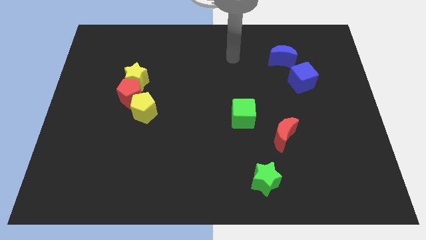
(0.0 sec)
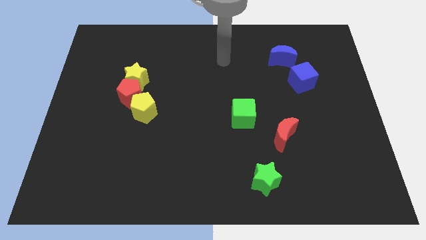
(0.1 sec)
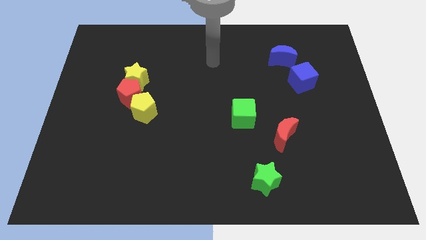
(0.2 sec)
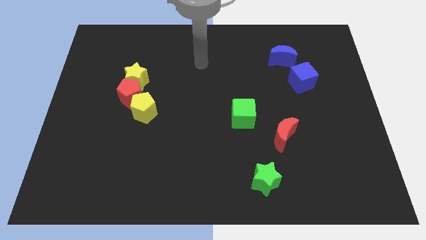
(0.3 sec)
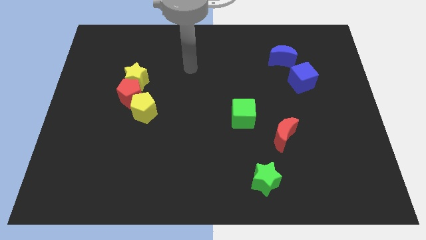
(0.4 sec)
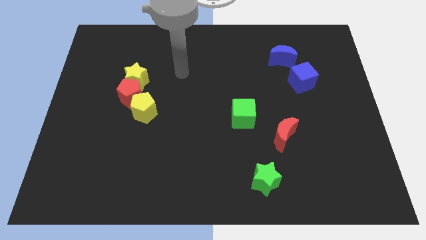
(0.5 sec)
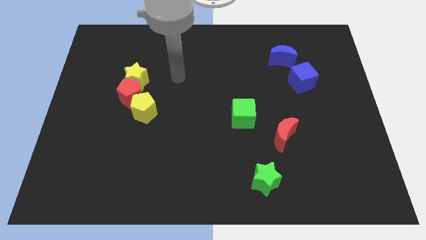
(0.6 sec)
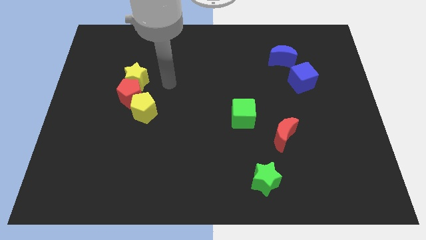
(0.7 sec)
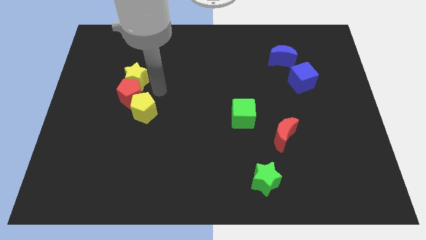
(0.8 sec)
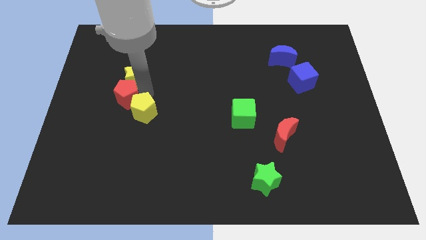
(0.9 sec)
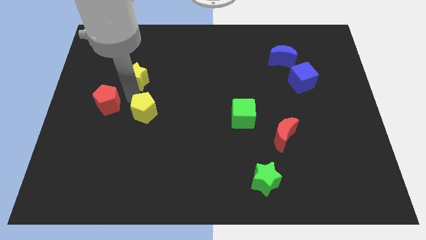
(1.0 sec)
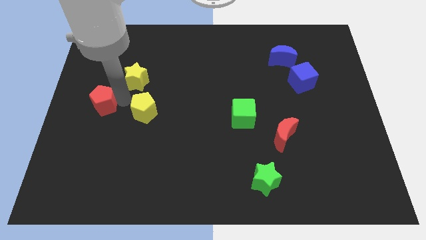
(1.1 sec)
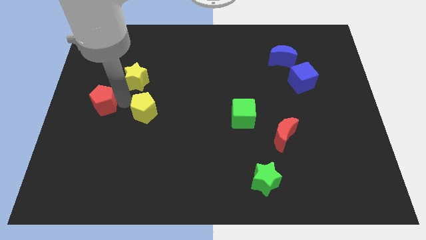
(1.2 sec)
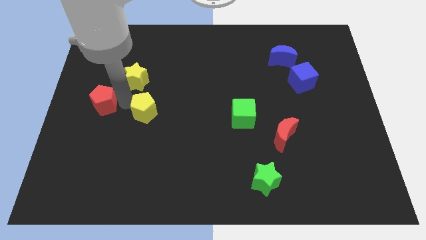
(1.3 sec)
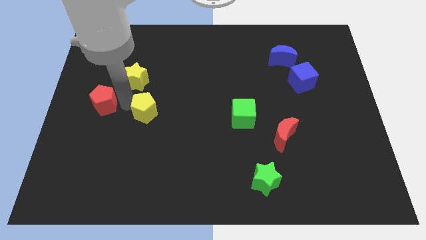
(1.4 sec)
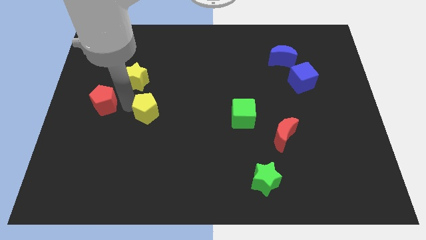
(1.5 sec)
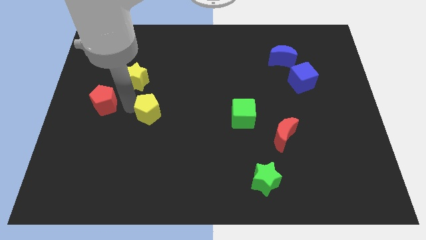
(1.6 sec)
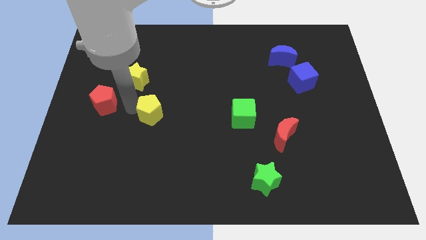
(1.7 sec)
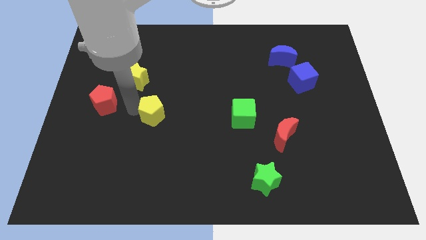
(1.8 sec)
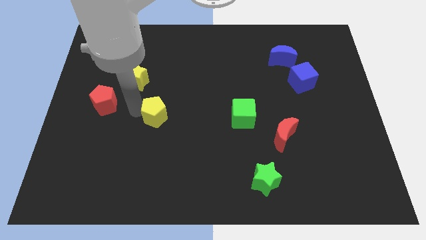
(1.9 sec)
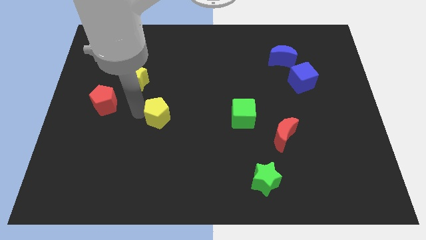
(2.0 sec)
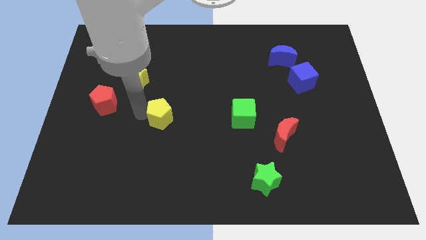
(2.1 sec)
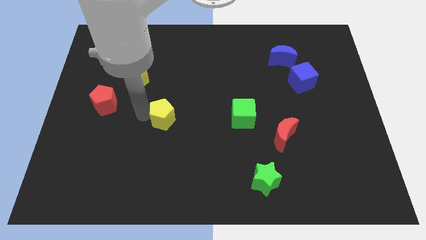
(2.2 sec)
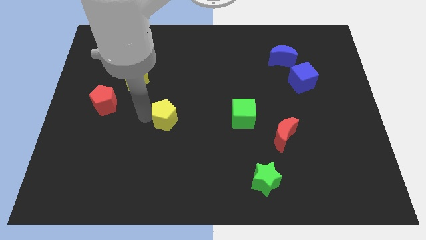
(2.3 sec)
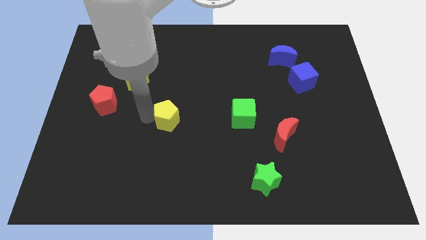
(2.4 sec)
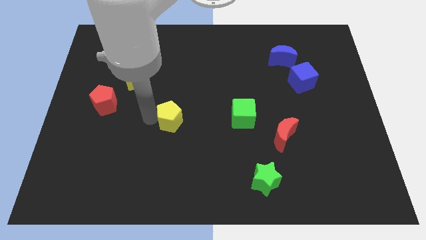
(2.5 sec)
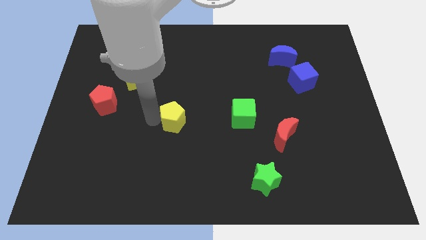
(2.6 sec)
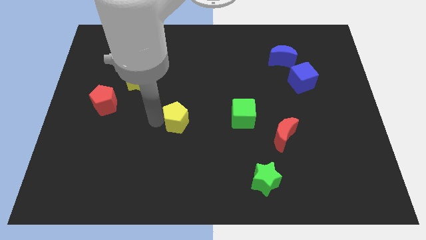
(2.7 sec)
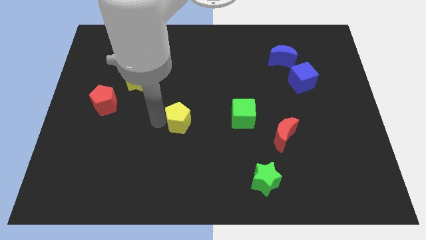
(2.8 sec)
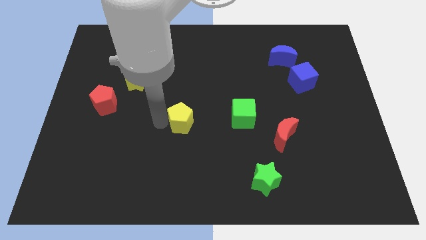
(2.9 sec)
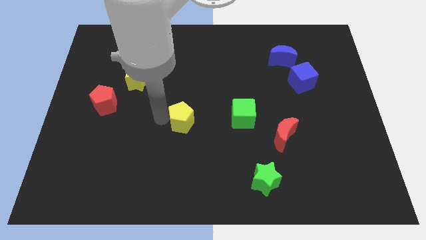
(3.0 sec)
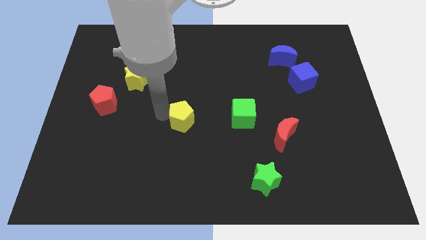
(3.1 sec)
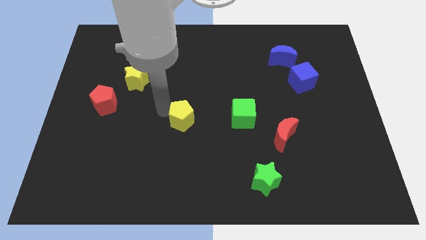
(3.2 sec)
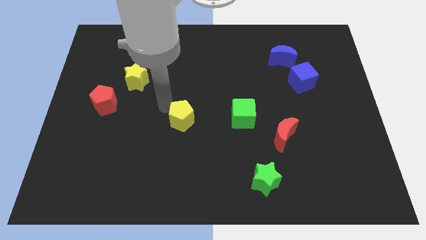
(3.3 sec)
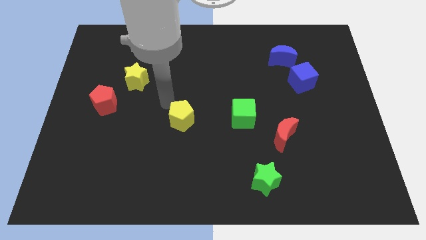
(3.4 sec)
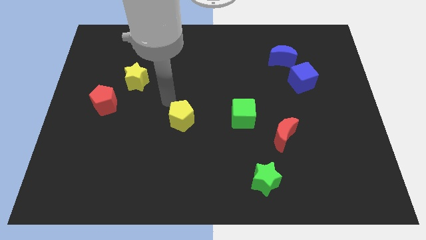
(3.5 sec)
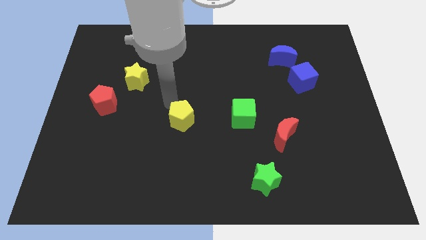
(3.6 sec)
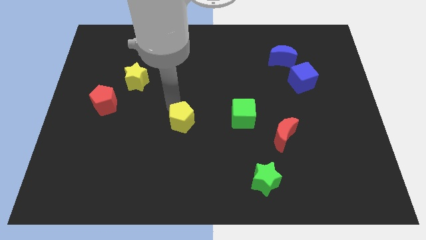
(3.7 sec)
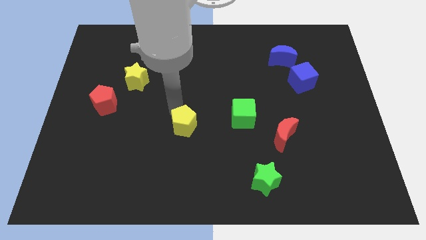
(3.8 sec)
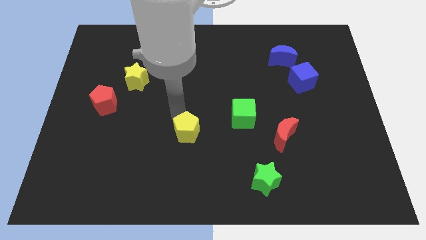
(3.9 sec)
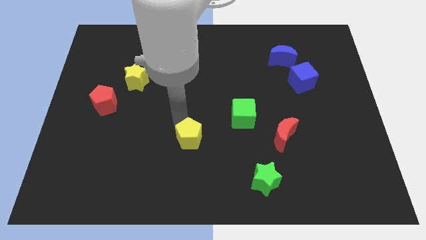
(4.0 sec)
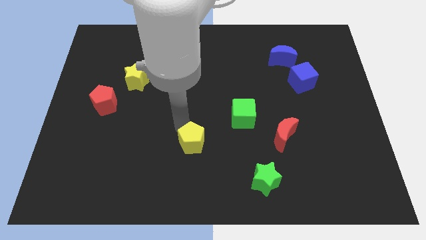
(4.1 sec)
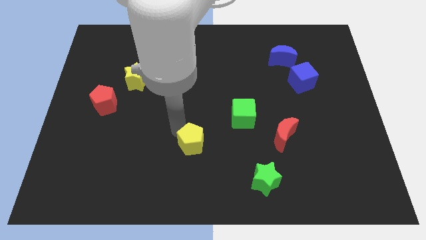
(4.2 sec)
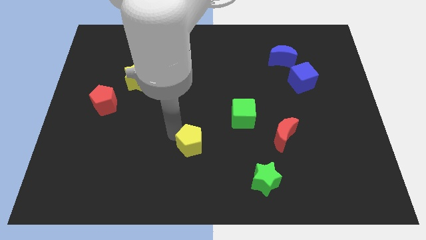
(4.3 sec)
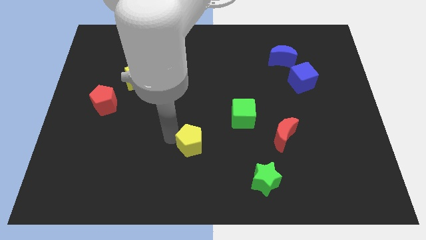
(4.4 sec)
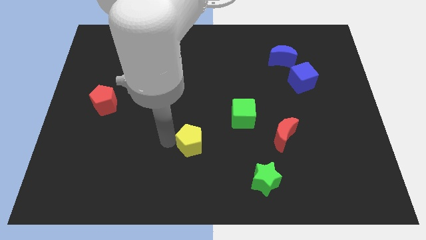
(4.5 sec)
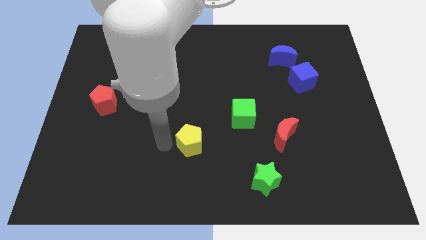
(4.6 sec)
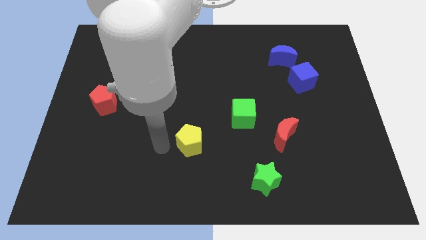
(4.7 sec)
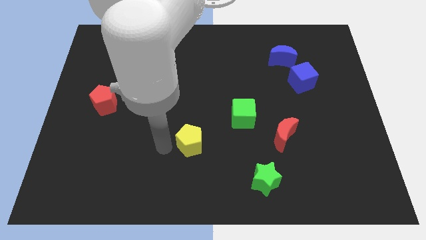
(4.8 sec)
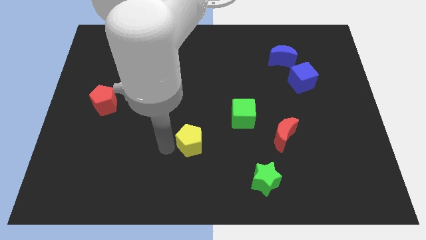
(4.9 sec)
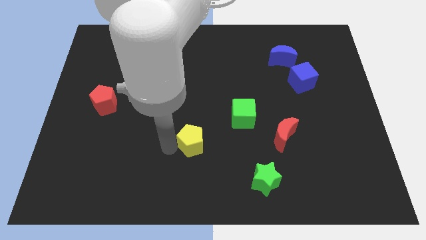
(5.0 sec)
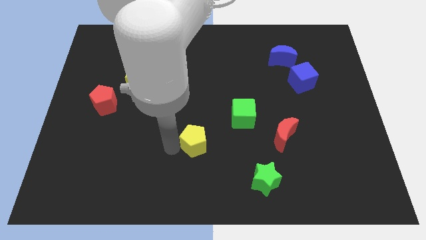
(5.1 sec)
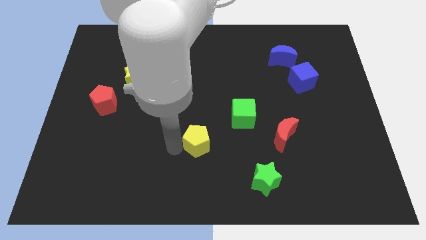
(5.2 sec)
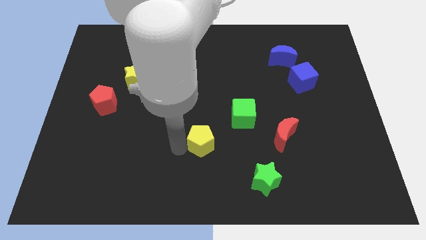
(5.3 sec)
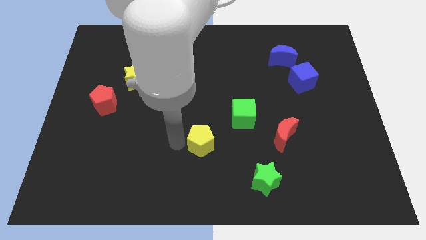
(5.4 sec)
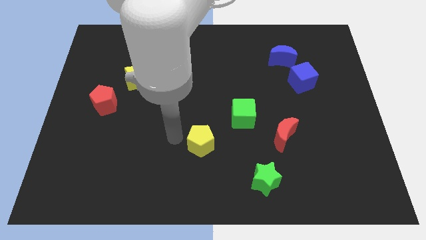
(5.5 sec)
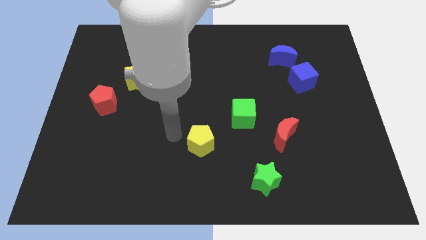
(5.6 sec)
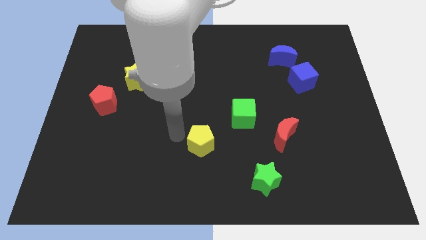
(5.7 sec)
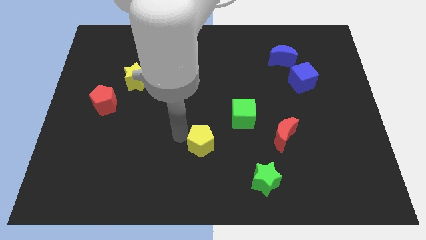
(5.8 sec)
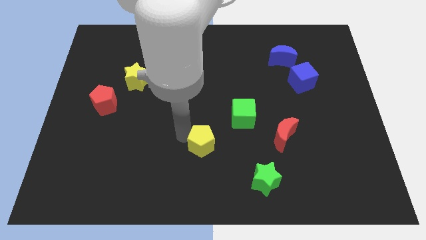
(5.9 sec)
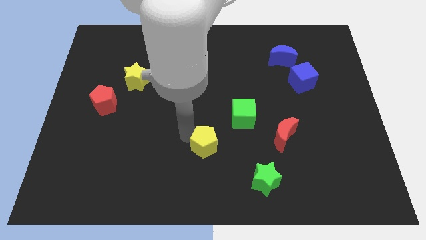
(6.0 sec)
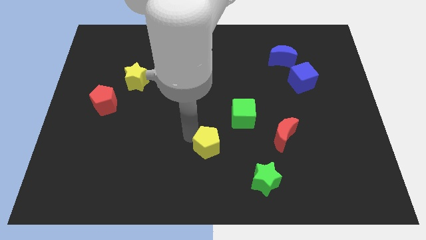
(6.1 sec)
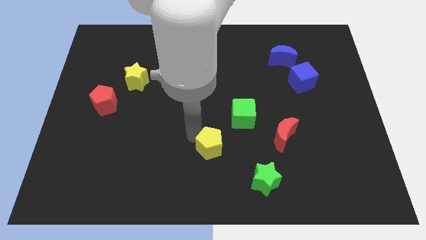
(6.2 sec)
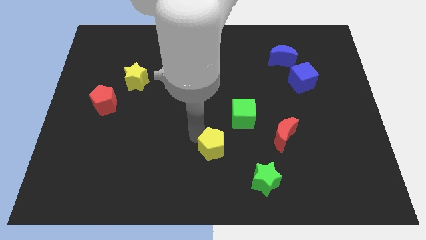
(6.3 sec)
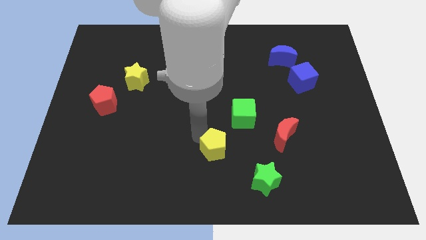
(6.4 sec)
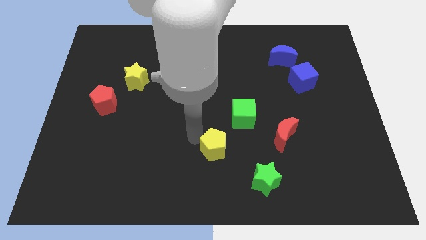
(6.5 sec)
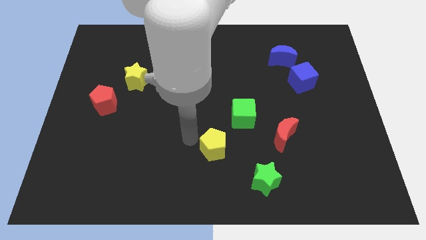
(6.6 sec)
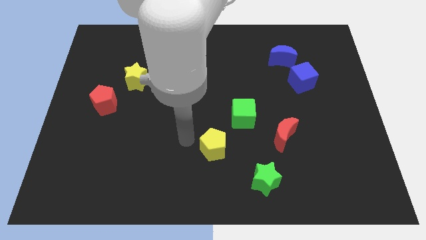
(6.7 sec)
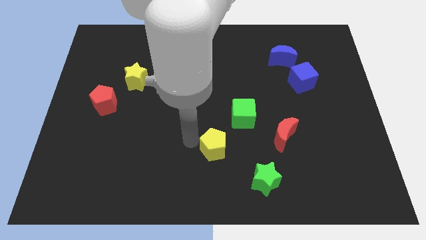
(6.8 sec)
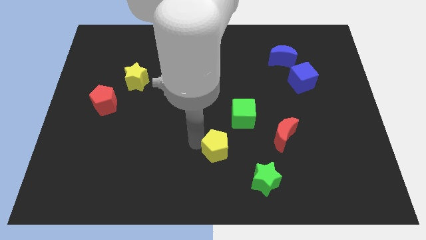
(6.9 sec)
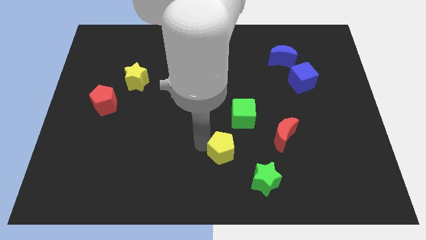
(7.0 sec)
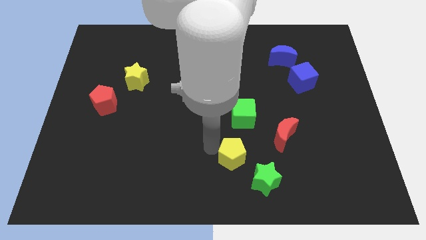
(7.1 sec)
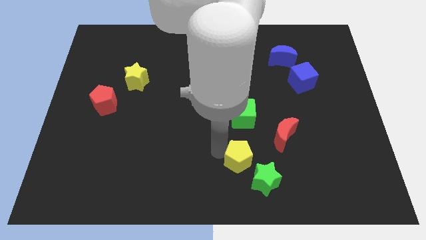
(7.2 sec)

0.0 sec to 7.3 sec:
push the yellow pentagon to the bottom left side of the red moon
